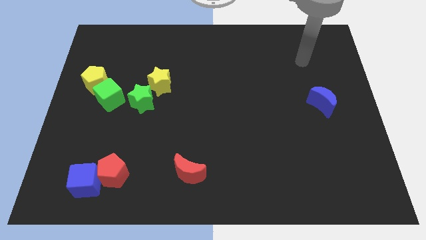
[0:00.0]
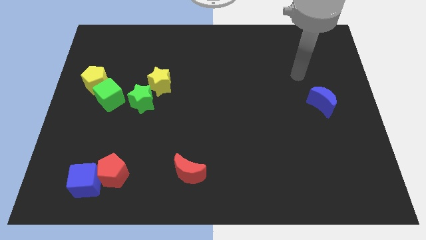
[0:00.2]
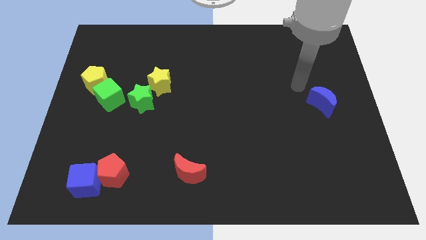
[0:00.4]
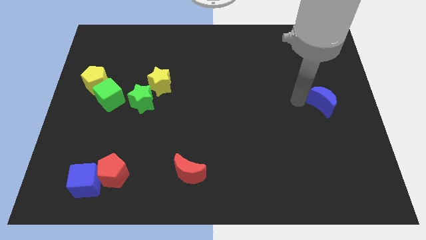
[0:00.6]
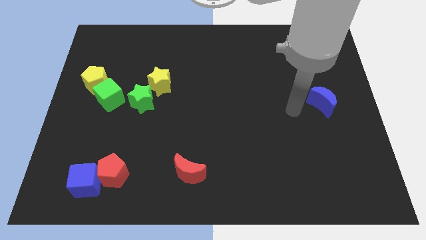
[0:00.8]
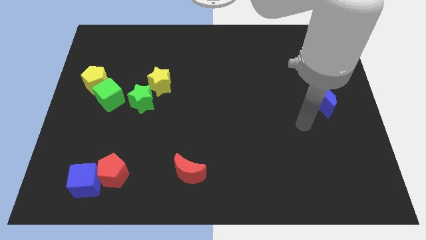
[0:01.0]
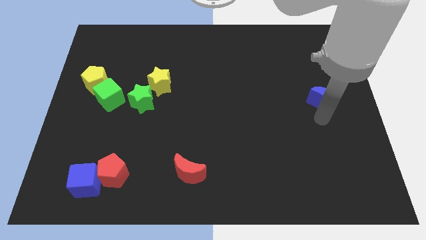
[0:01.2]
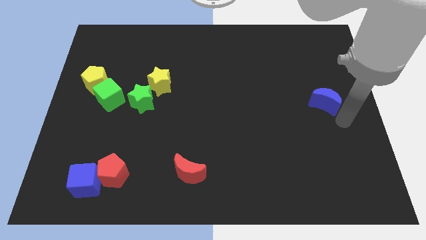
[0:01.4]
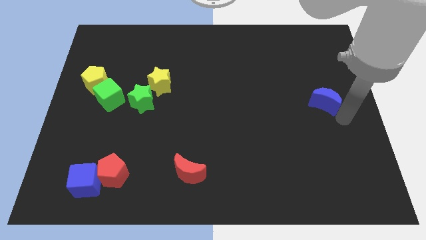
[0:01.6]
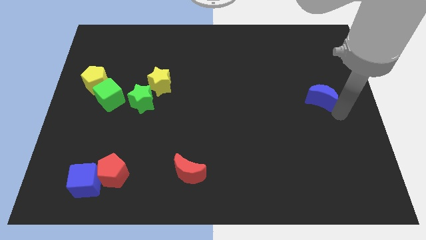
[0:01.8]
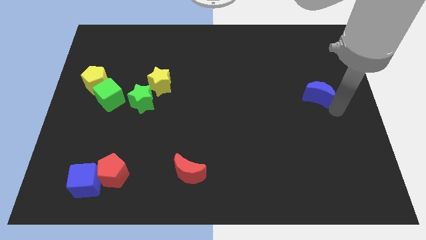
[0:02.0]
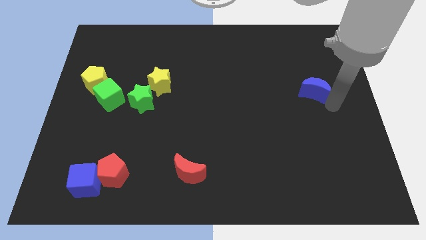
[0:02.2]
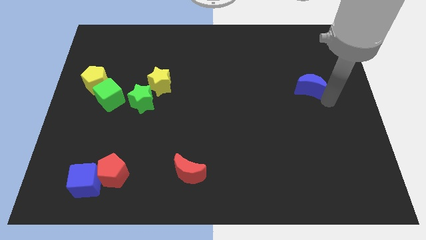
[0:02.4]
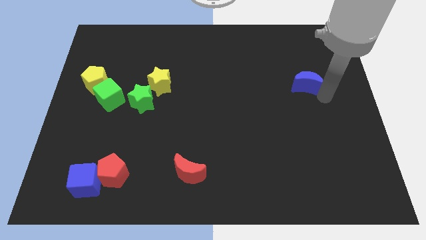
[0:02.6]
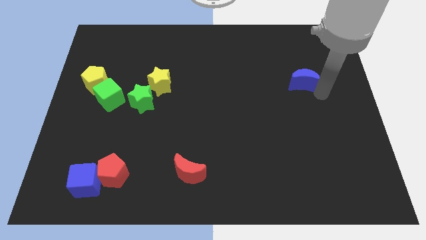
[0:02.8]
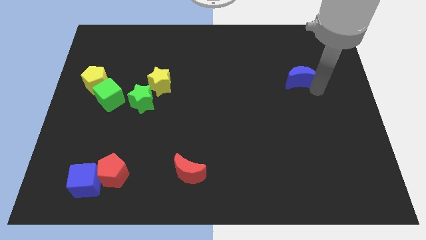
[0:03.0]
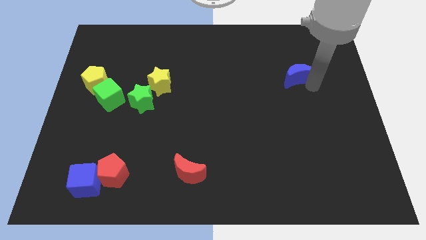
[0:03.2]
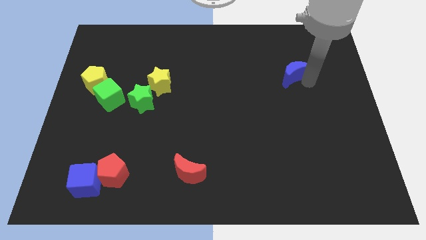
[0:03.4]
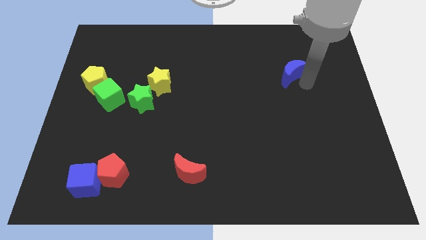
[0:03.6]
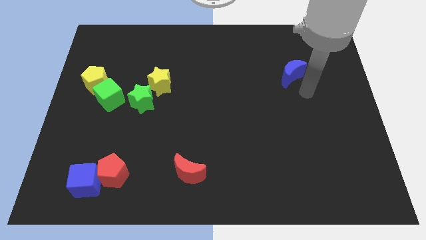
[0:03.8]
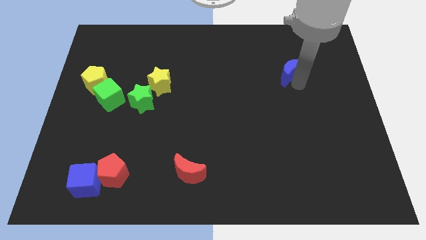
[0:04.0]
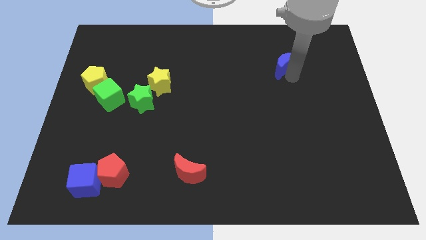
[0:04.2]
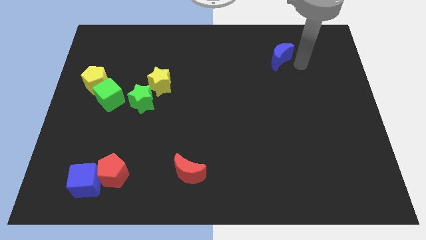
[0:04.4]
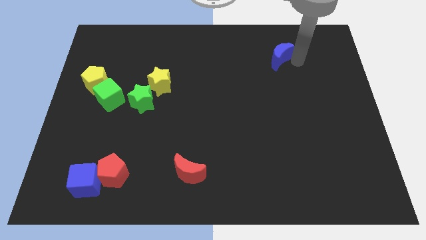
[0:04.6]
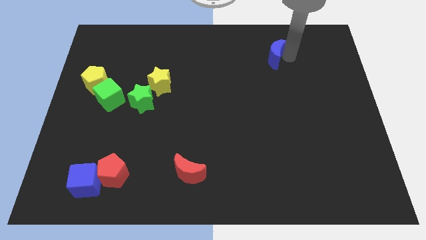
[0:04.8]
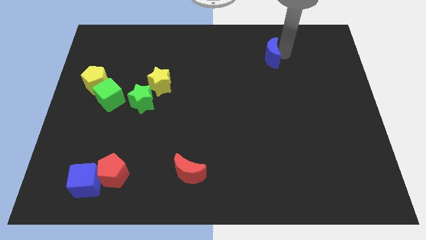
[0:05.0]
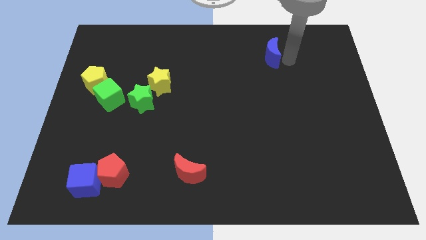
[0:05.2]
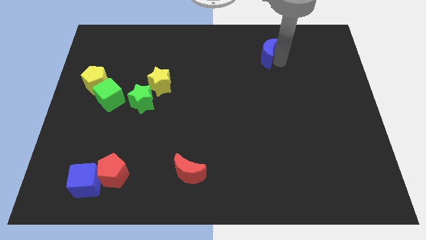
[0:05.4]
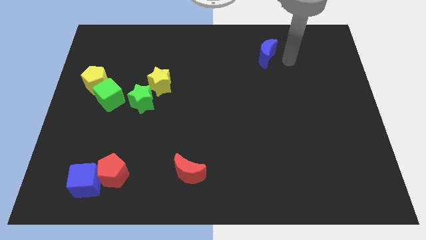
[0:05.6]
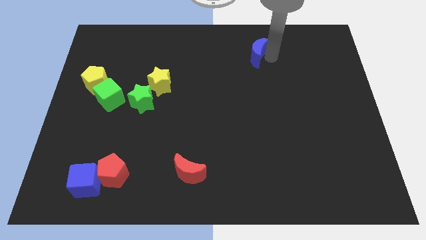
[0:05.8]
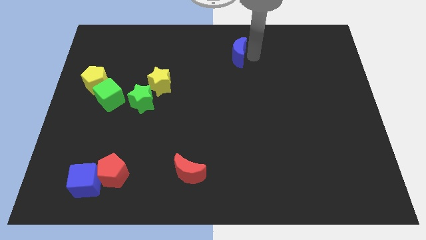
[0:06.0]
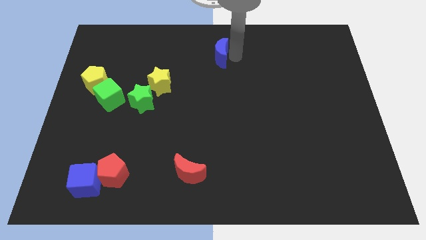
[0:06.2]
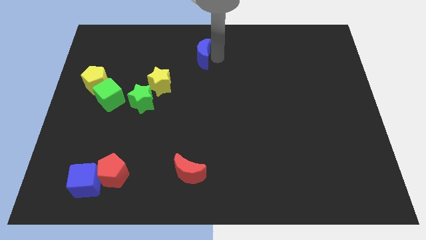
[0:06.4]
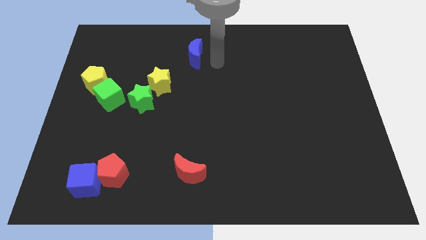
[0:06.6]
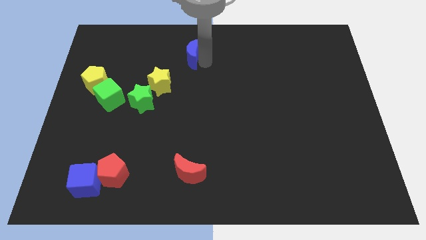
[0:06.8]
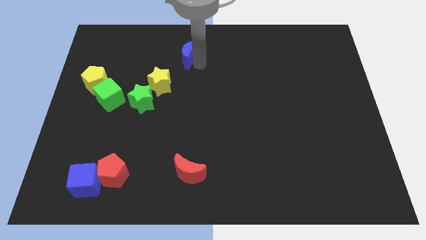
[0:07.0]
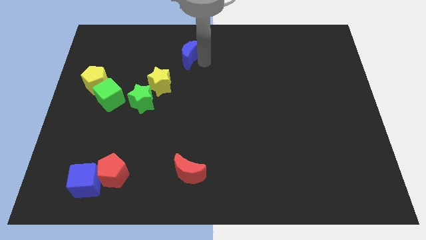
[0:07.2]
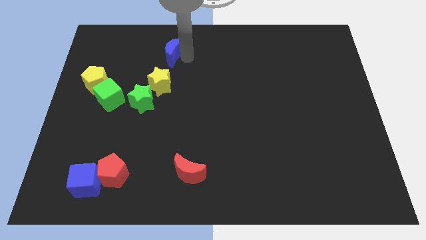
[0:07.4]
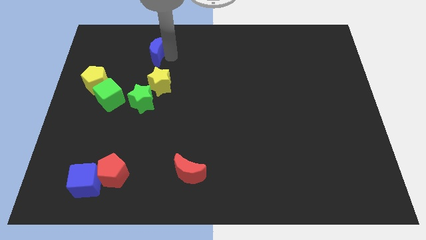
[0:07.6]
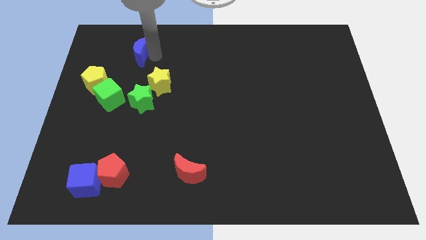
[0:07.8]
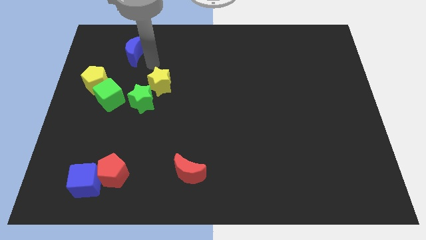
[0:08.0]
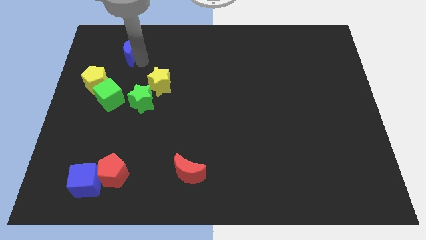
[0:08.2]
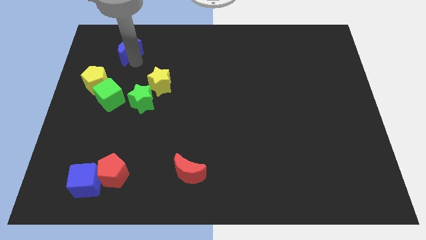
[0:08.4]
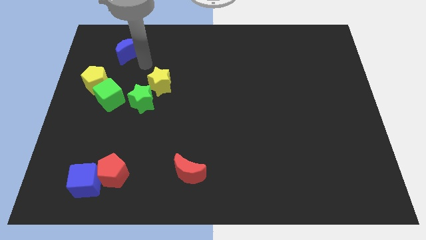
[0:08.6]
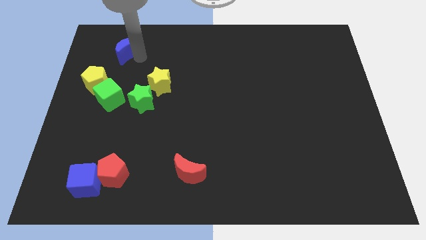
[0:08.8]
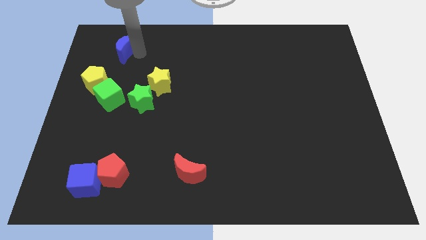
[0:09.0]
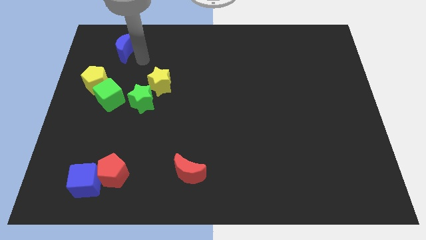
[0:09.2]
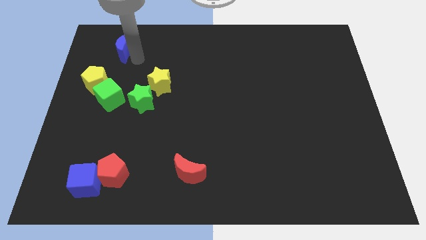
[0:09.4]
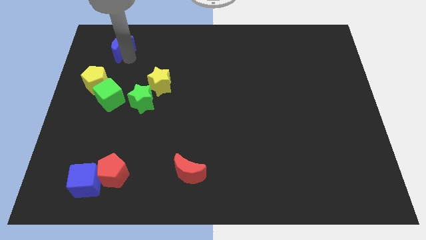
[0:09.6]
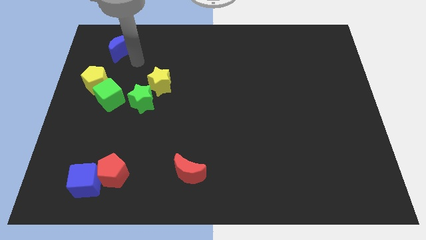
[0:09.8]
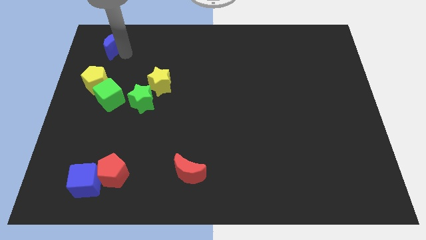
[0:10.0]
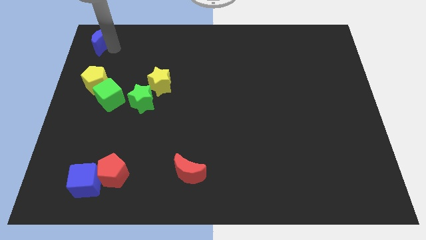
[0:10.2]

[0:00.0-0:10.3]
slide the blue moon to the top left corner

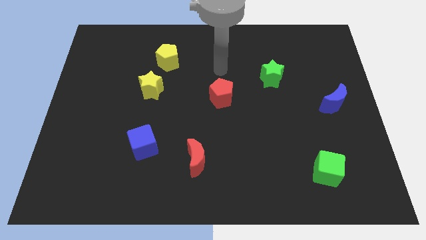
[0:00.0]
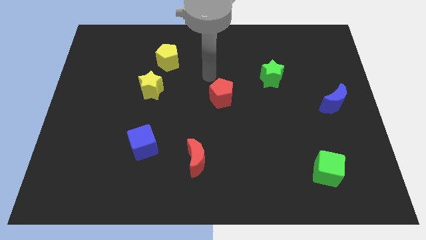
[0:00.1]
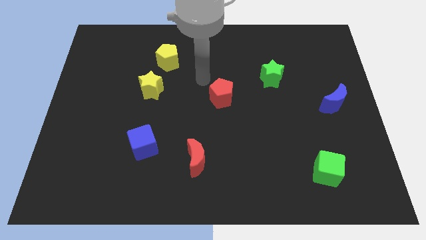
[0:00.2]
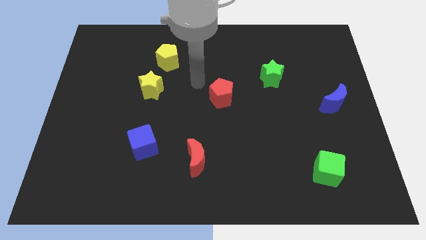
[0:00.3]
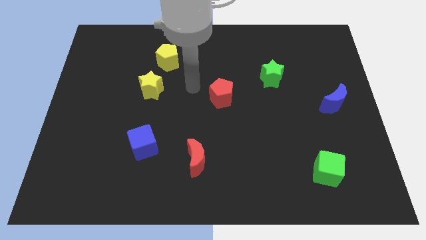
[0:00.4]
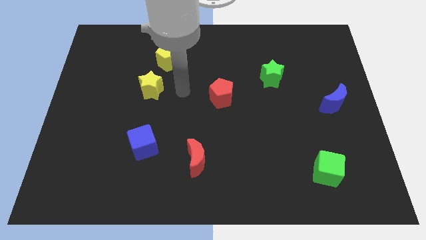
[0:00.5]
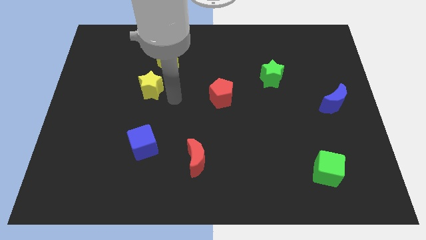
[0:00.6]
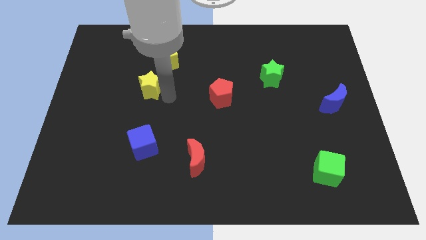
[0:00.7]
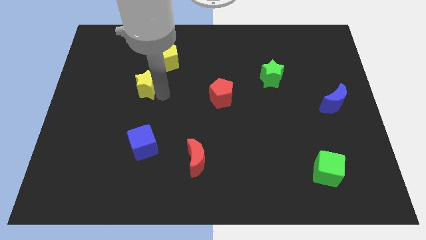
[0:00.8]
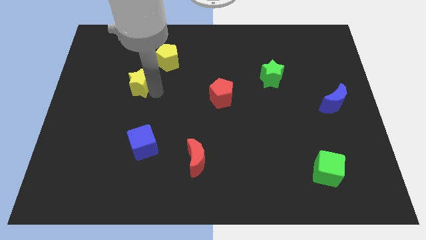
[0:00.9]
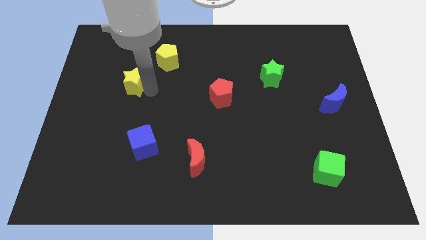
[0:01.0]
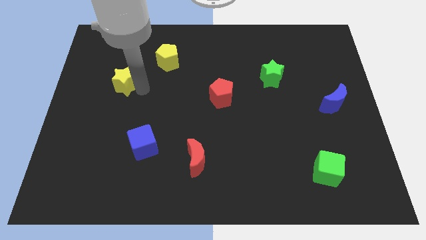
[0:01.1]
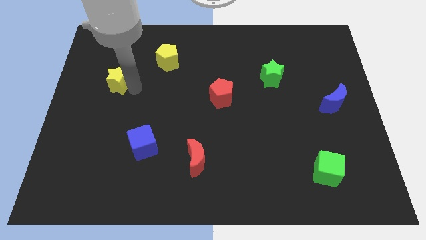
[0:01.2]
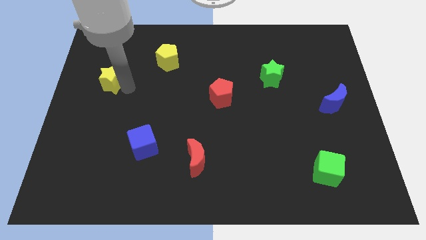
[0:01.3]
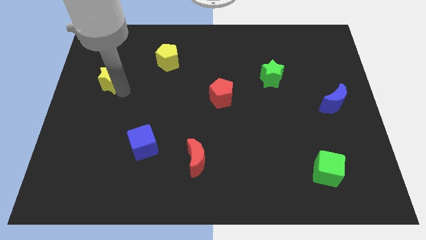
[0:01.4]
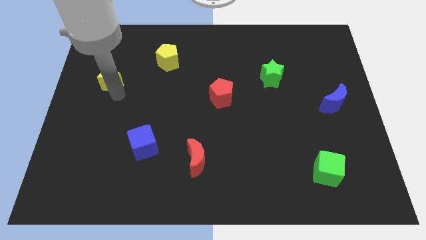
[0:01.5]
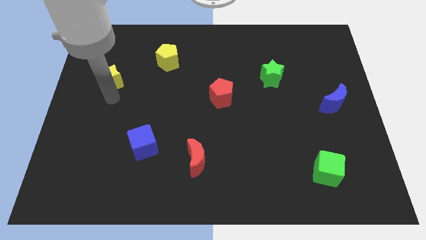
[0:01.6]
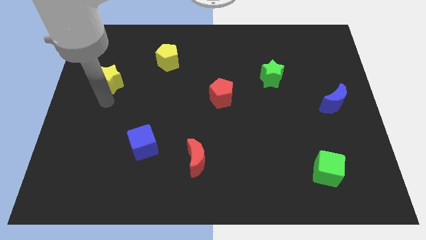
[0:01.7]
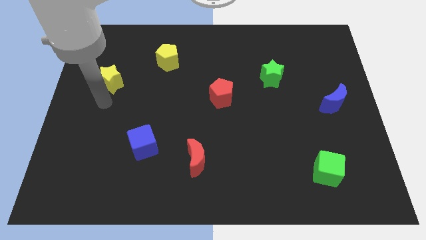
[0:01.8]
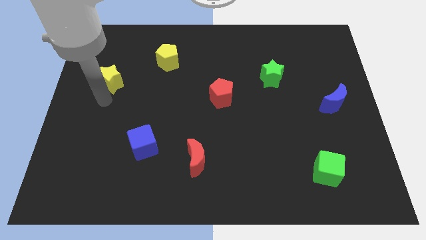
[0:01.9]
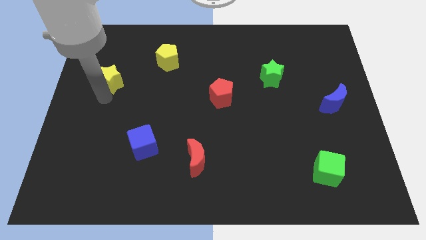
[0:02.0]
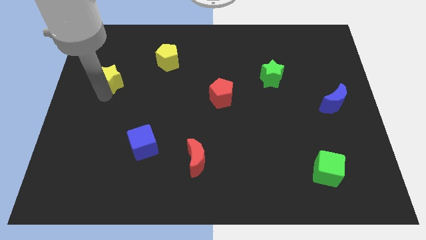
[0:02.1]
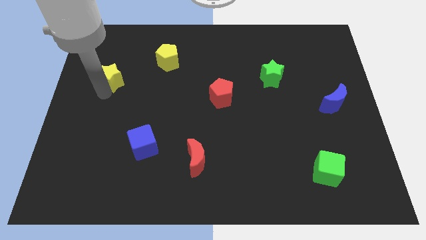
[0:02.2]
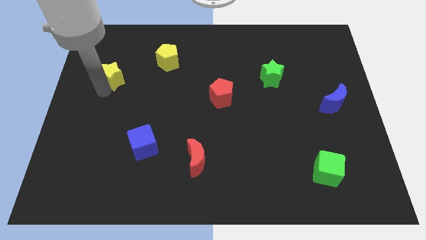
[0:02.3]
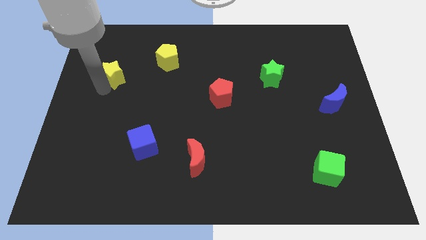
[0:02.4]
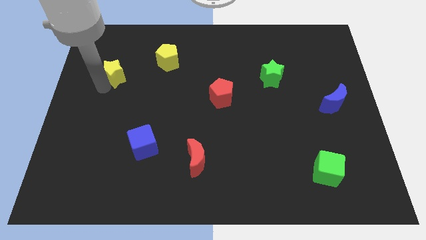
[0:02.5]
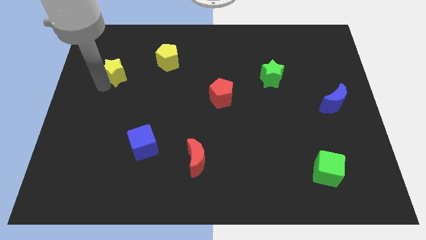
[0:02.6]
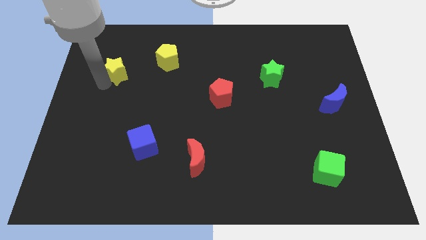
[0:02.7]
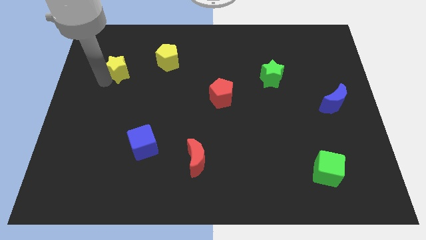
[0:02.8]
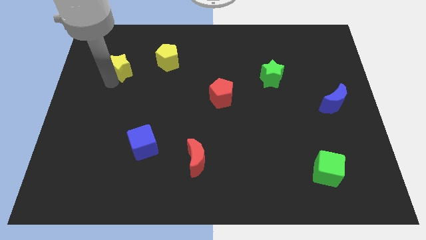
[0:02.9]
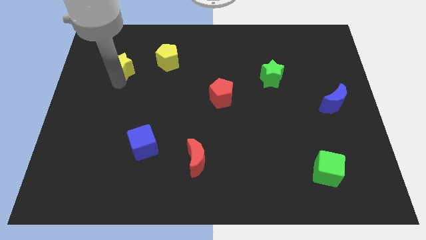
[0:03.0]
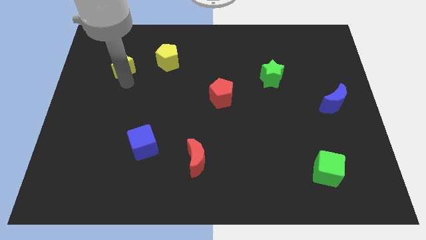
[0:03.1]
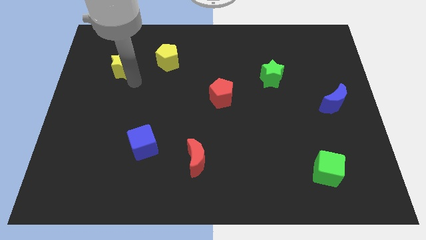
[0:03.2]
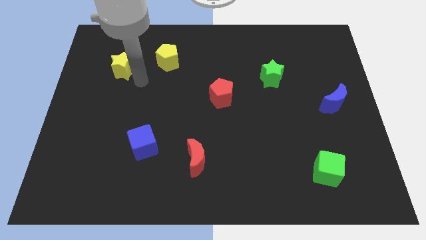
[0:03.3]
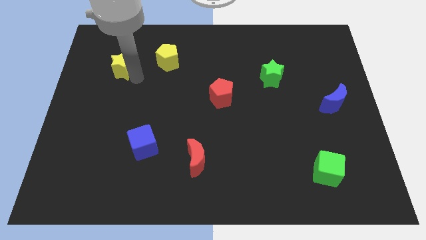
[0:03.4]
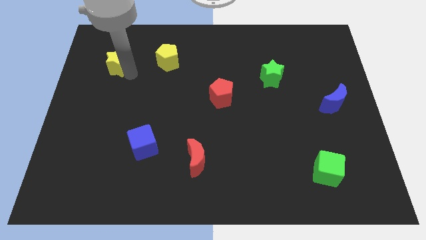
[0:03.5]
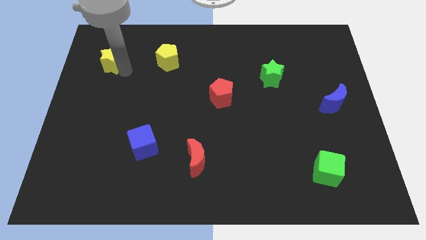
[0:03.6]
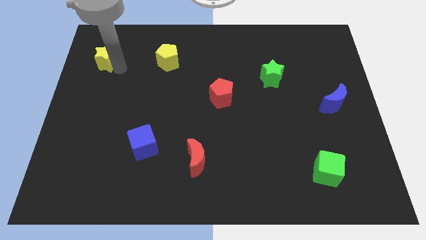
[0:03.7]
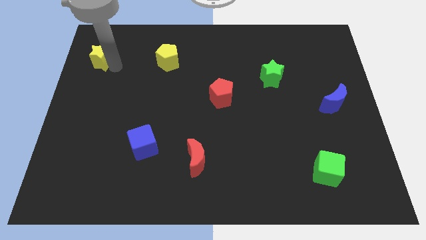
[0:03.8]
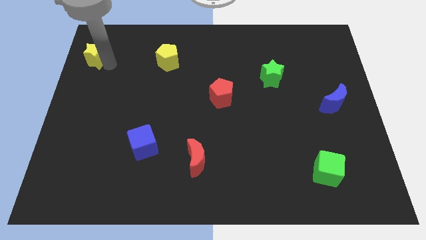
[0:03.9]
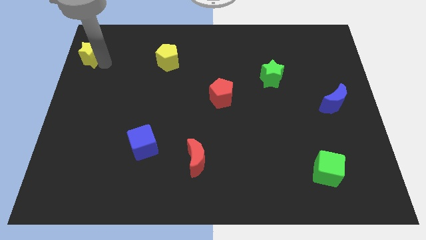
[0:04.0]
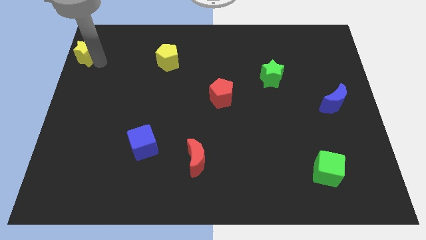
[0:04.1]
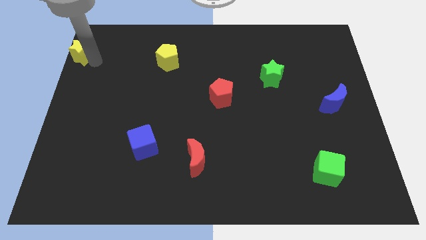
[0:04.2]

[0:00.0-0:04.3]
slide the yellow star to the top left of the board
